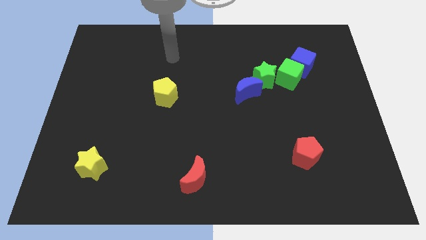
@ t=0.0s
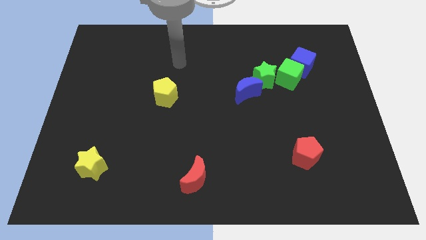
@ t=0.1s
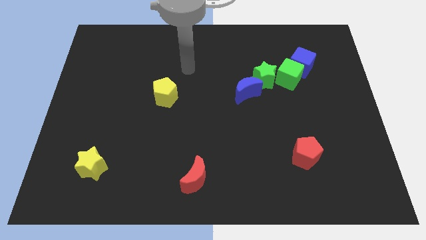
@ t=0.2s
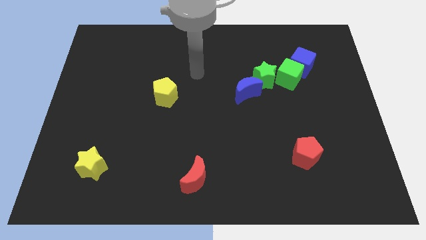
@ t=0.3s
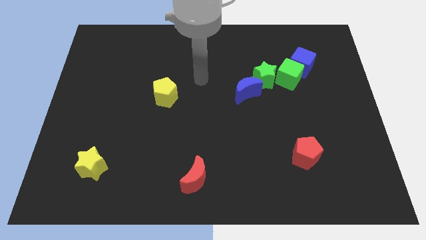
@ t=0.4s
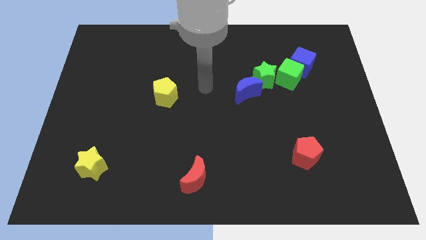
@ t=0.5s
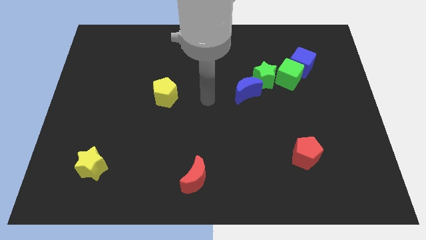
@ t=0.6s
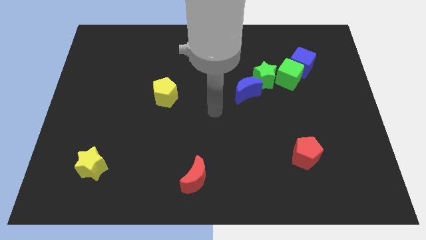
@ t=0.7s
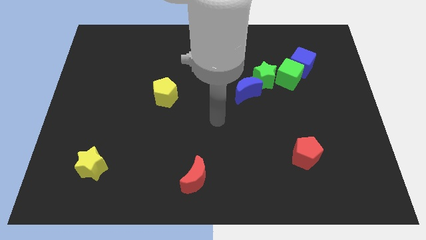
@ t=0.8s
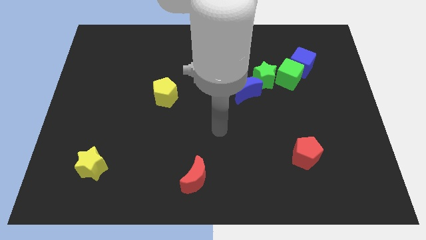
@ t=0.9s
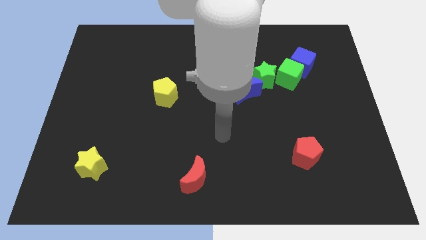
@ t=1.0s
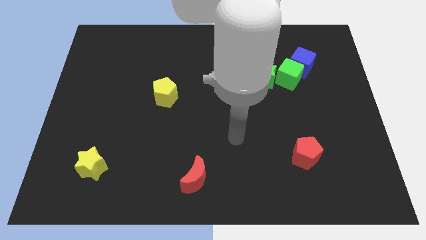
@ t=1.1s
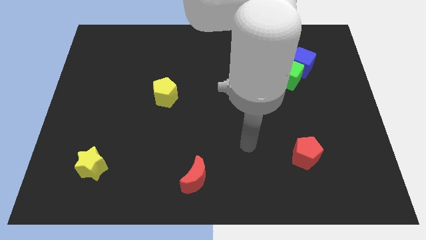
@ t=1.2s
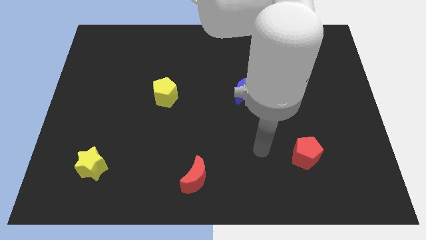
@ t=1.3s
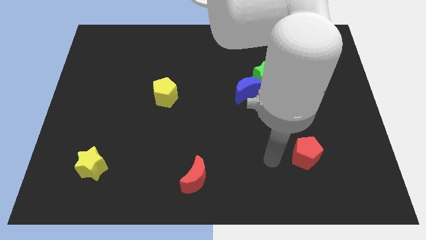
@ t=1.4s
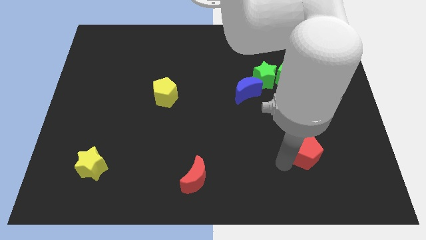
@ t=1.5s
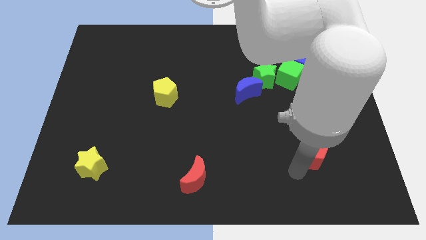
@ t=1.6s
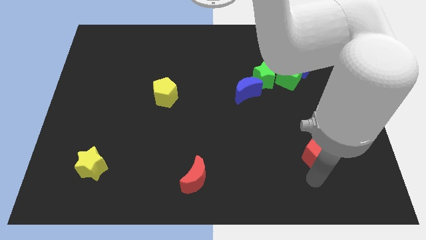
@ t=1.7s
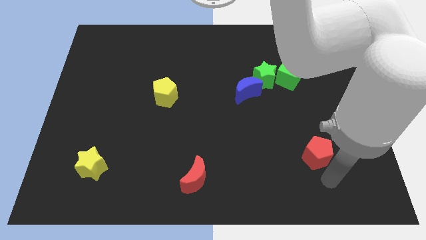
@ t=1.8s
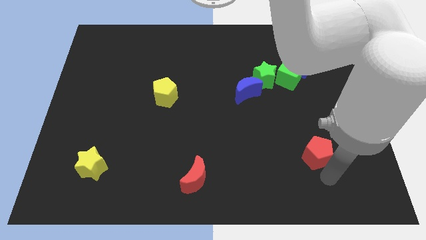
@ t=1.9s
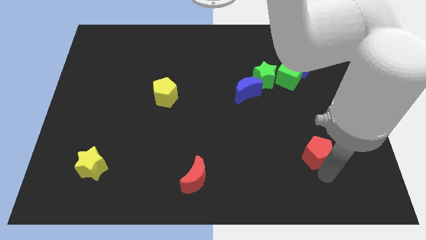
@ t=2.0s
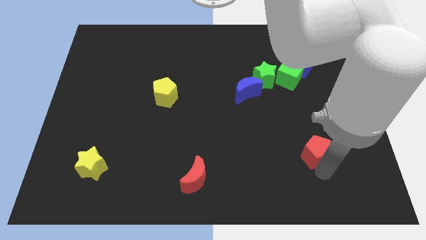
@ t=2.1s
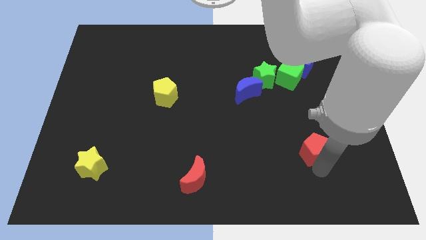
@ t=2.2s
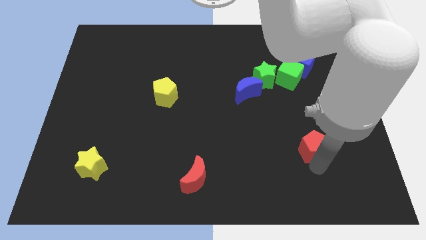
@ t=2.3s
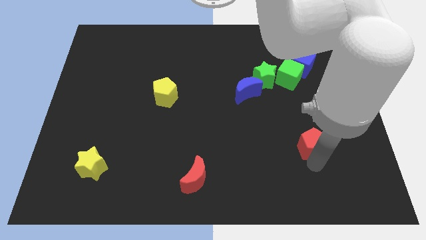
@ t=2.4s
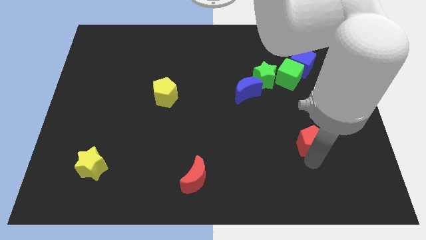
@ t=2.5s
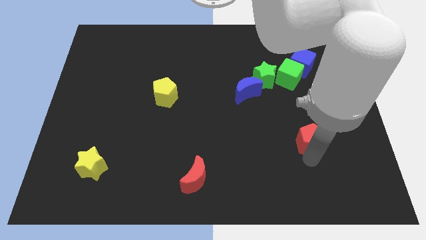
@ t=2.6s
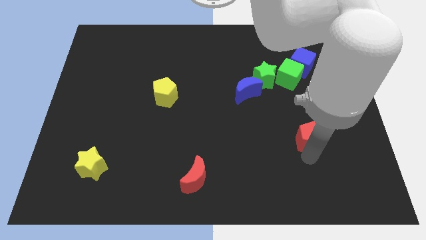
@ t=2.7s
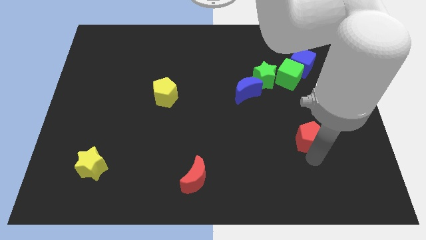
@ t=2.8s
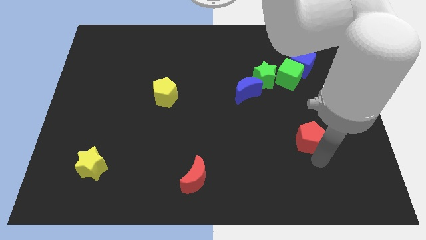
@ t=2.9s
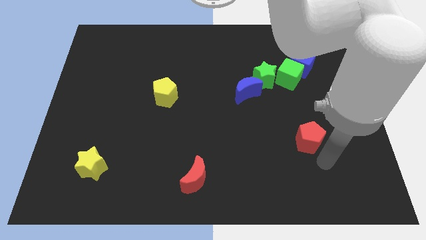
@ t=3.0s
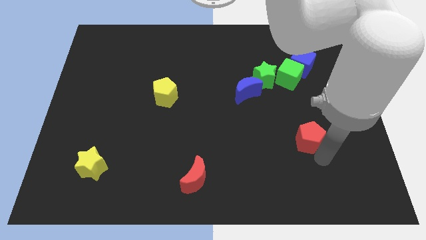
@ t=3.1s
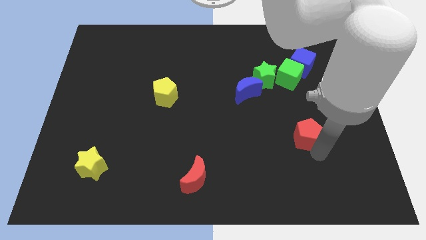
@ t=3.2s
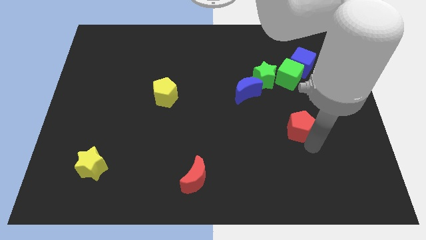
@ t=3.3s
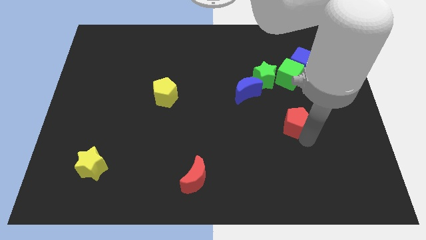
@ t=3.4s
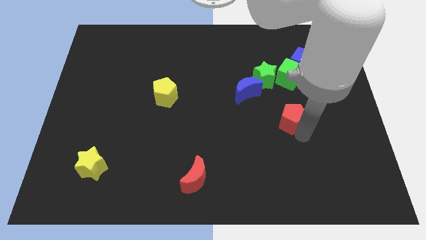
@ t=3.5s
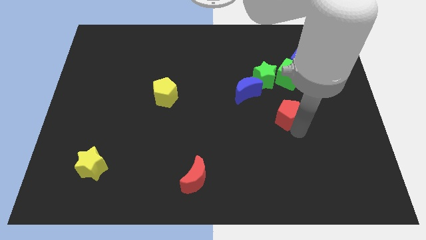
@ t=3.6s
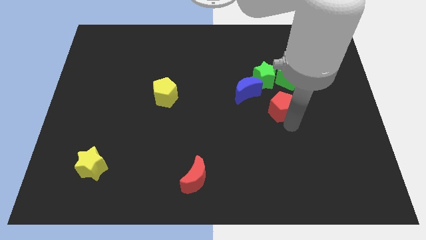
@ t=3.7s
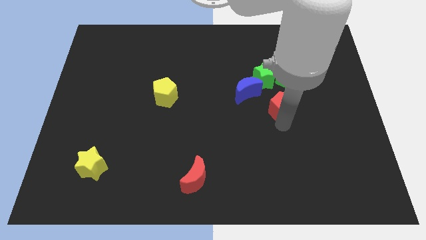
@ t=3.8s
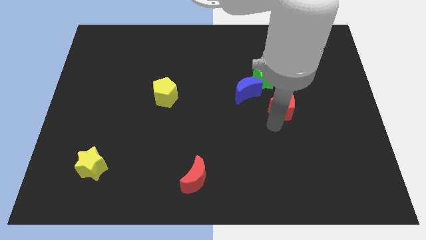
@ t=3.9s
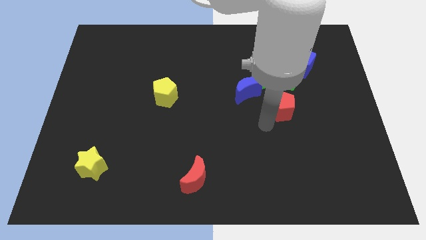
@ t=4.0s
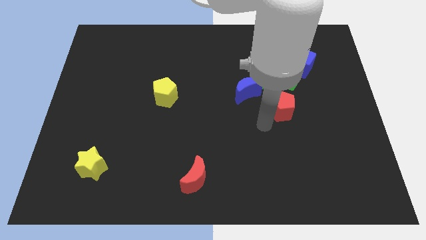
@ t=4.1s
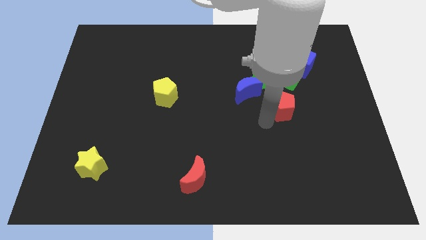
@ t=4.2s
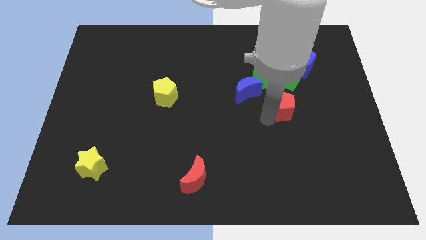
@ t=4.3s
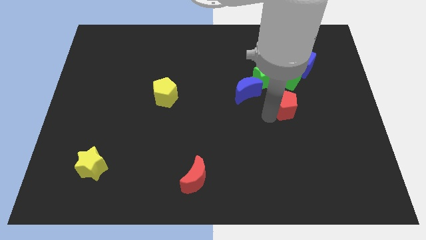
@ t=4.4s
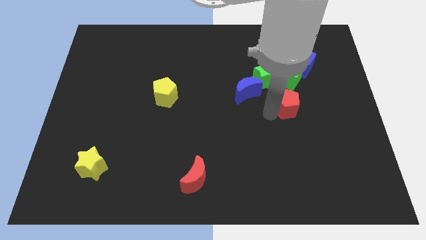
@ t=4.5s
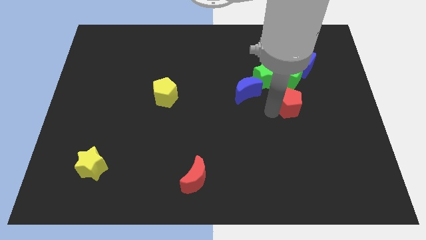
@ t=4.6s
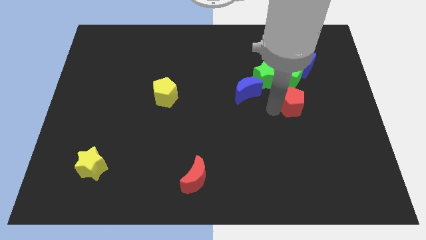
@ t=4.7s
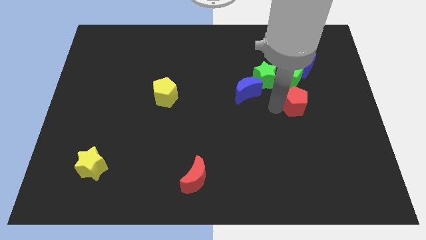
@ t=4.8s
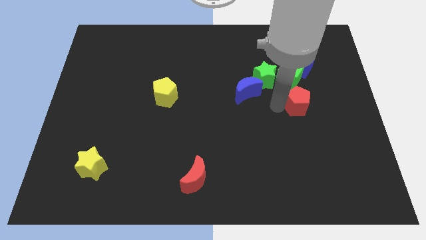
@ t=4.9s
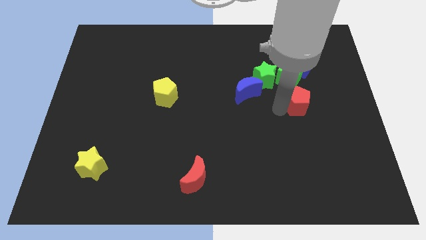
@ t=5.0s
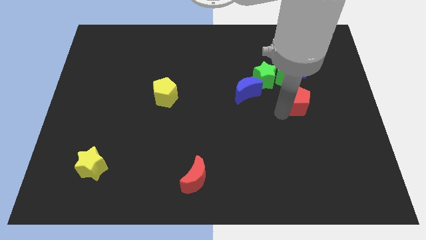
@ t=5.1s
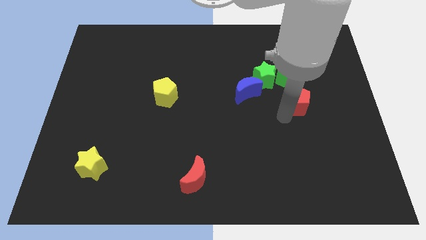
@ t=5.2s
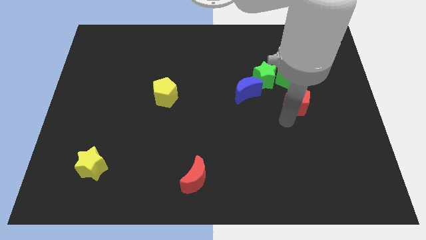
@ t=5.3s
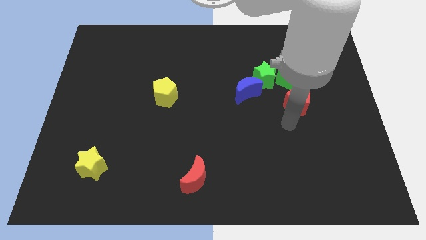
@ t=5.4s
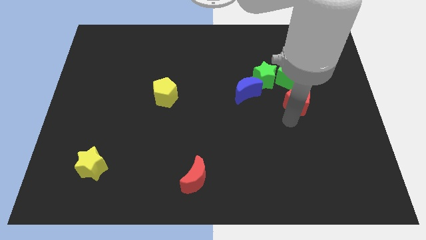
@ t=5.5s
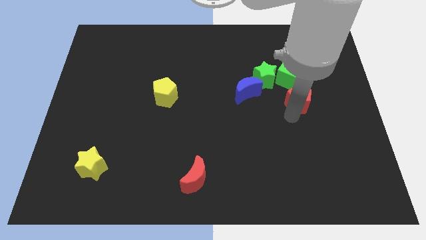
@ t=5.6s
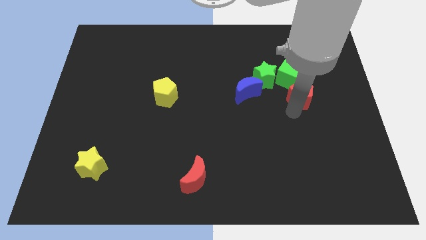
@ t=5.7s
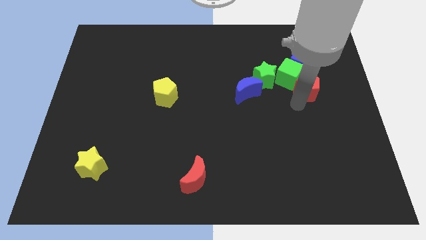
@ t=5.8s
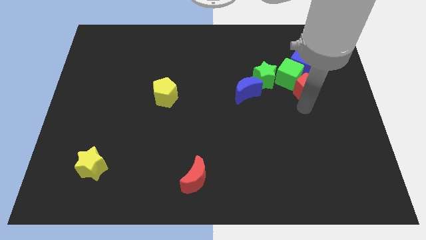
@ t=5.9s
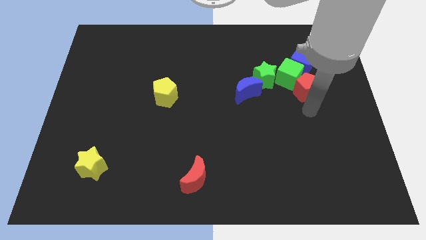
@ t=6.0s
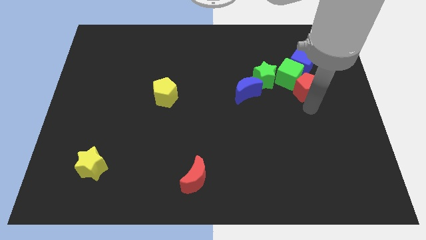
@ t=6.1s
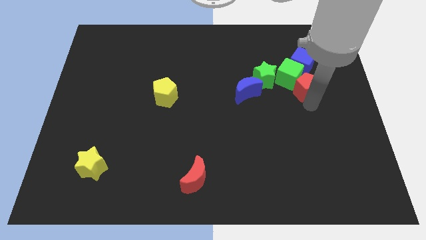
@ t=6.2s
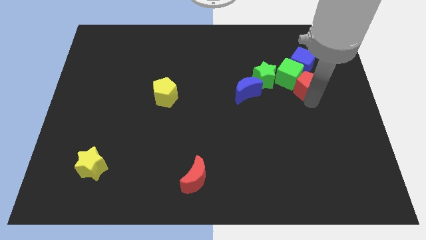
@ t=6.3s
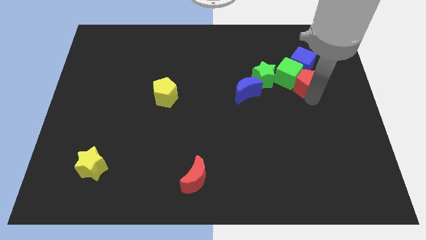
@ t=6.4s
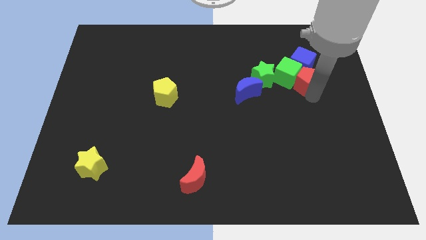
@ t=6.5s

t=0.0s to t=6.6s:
put the red pentagon next to the blue cube
